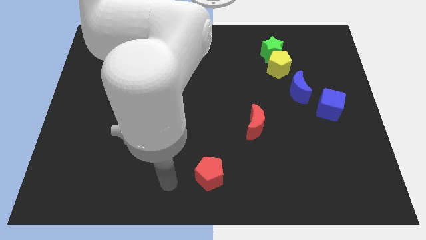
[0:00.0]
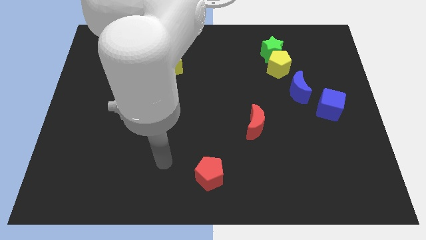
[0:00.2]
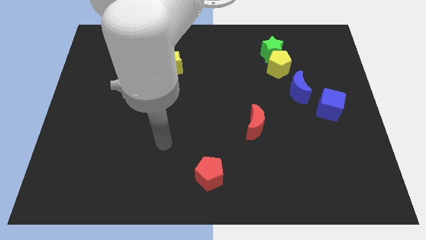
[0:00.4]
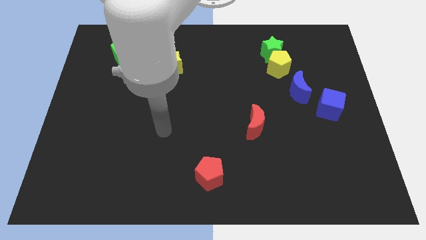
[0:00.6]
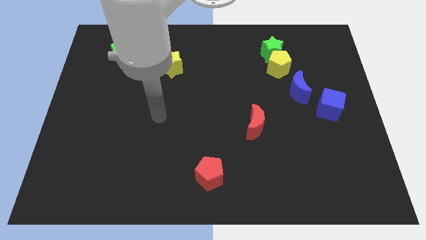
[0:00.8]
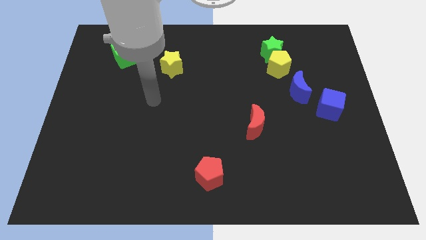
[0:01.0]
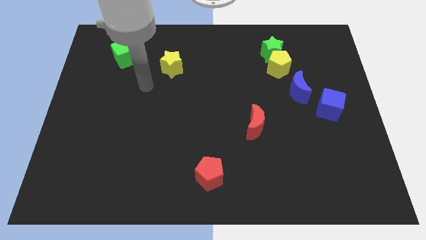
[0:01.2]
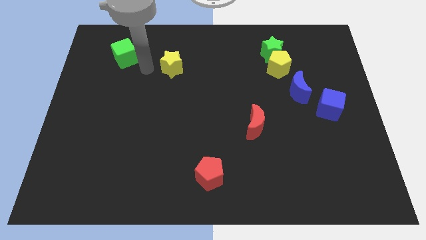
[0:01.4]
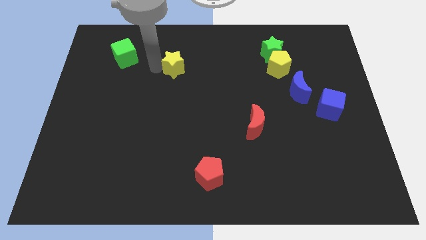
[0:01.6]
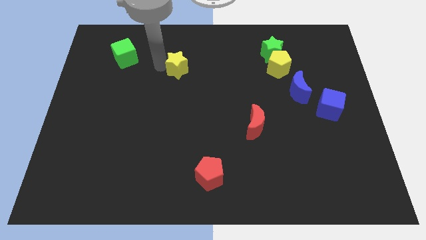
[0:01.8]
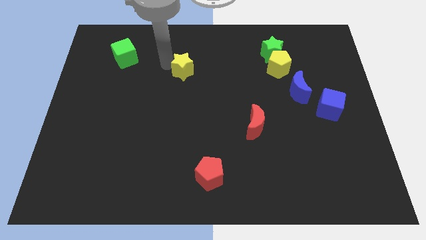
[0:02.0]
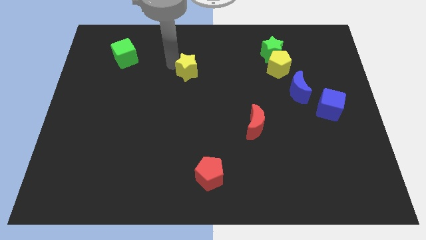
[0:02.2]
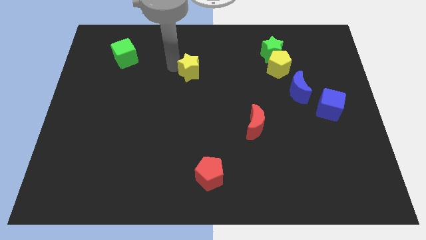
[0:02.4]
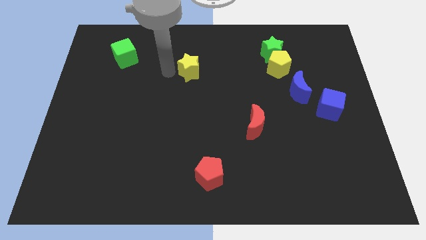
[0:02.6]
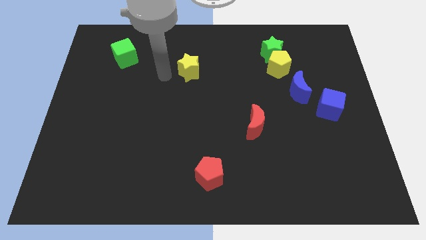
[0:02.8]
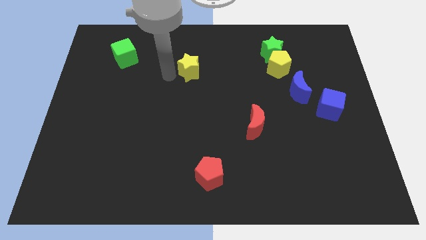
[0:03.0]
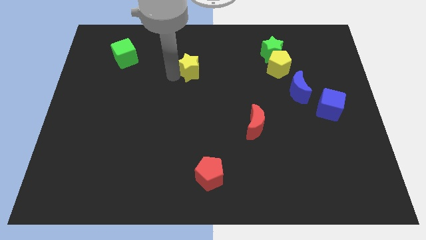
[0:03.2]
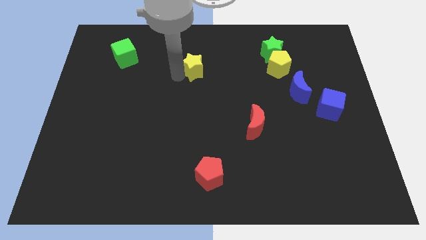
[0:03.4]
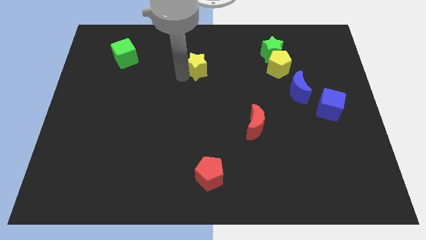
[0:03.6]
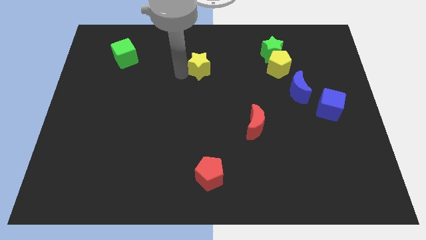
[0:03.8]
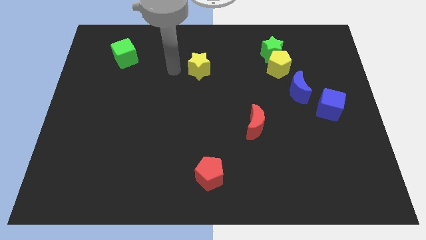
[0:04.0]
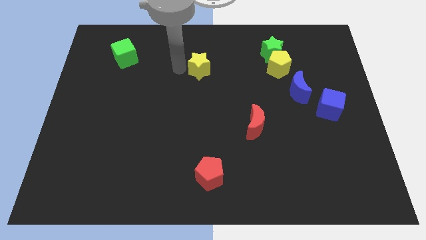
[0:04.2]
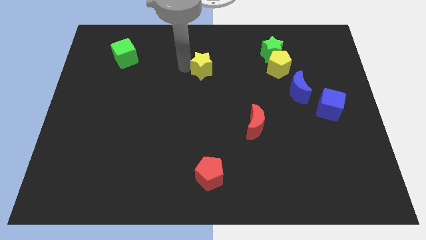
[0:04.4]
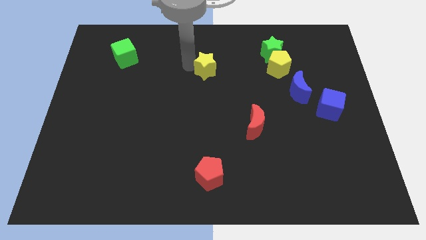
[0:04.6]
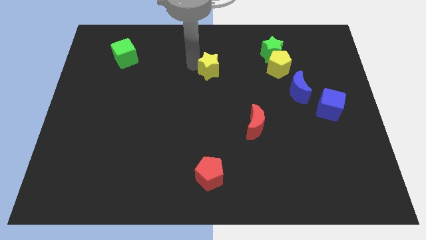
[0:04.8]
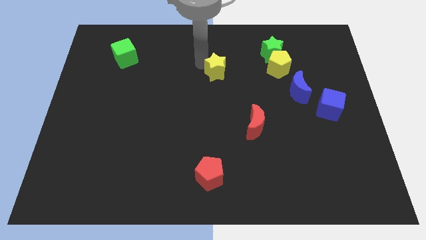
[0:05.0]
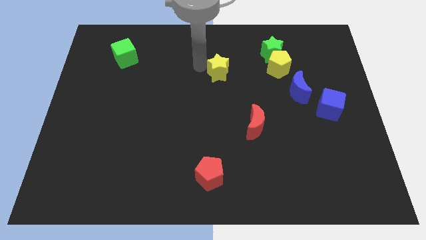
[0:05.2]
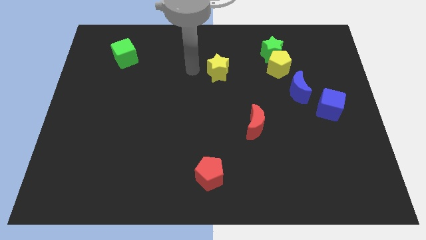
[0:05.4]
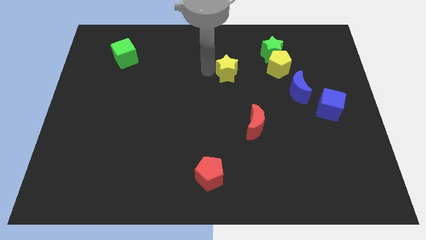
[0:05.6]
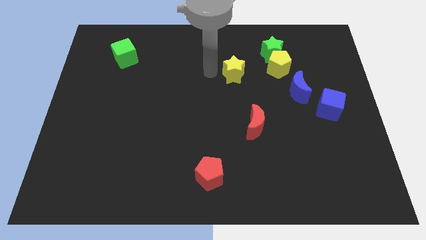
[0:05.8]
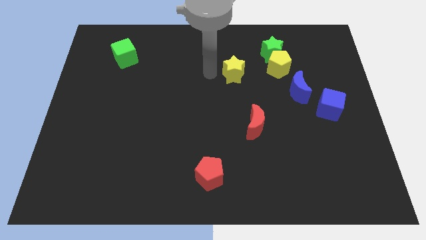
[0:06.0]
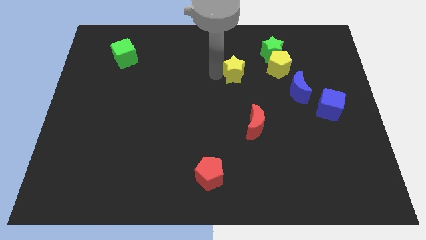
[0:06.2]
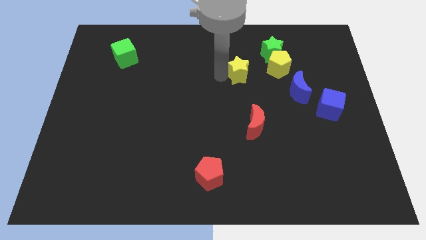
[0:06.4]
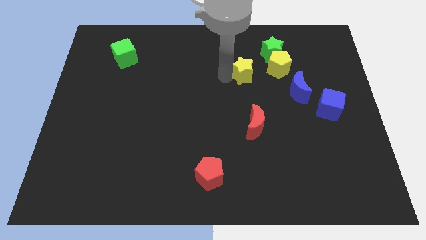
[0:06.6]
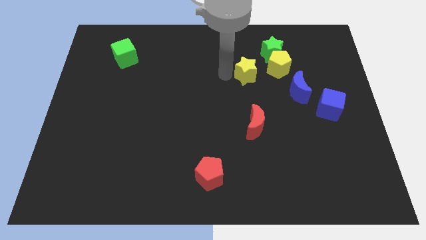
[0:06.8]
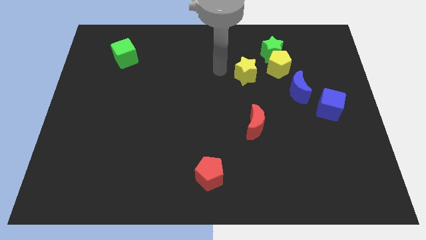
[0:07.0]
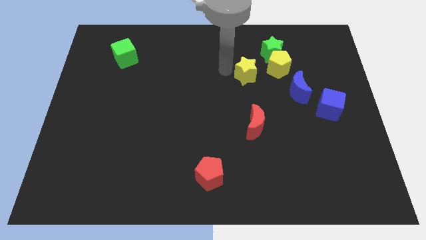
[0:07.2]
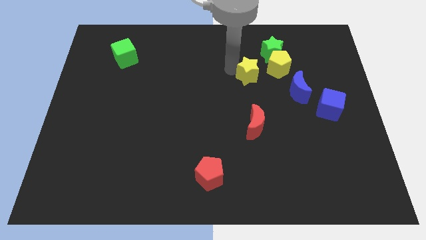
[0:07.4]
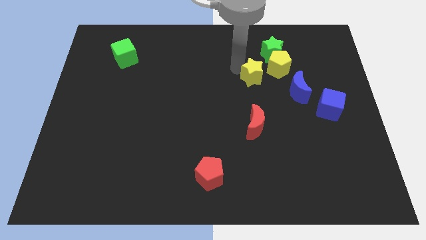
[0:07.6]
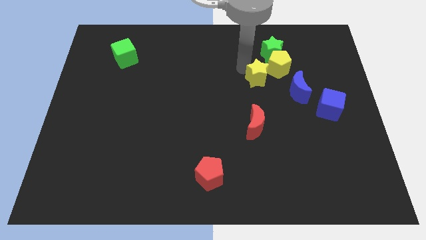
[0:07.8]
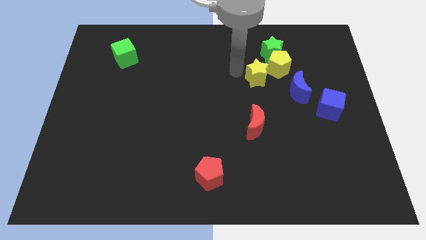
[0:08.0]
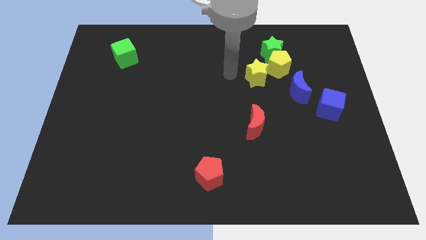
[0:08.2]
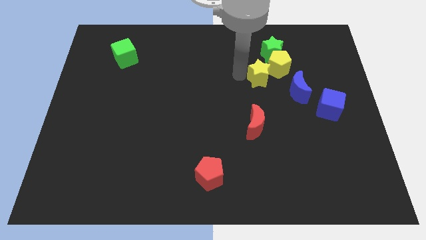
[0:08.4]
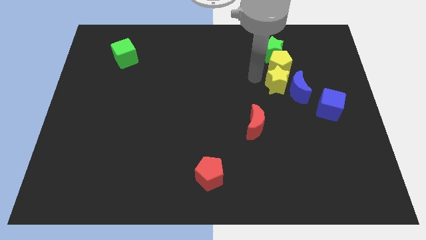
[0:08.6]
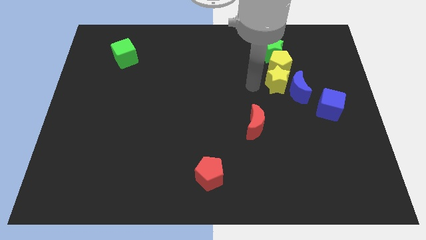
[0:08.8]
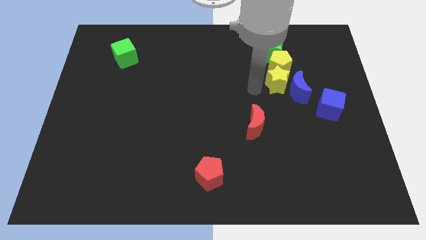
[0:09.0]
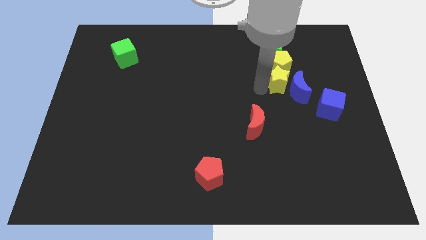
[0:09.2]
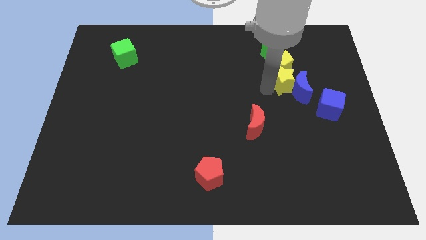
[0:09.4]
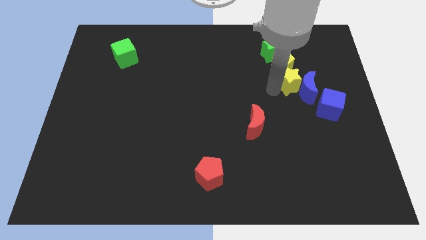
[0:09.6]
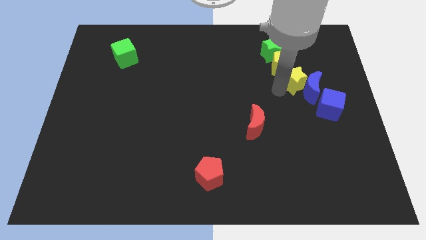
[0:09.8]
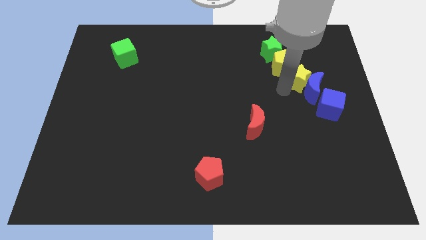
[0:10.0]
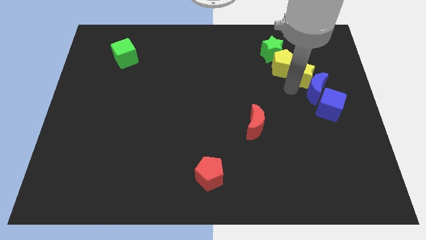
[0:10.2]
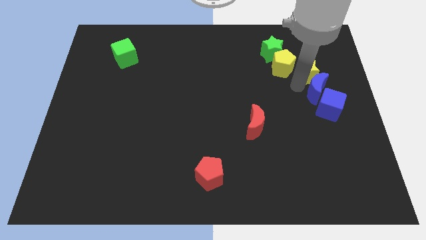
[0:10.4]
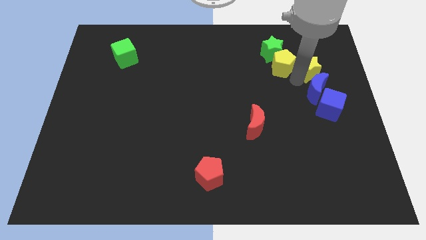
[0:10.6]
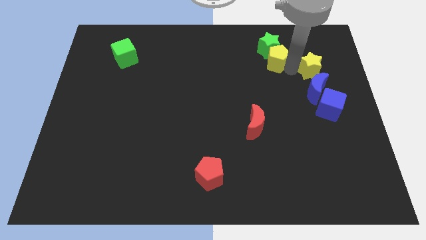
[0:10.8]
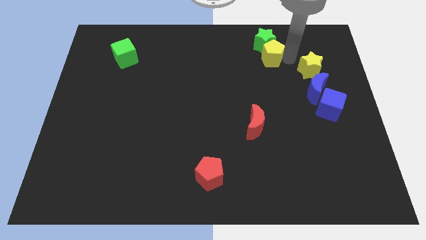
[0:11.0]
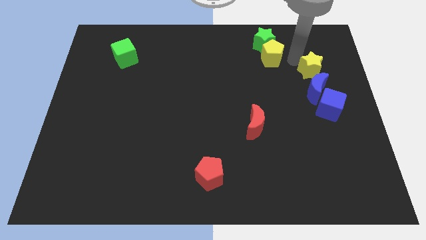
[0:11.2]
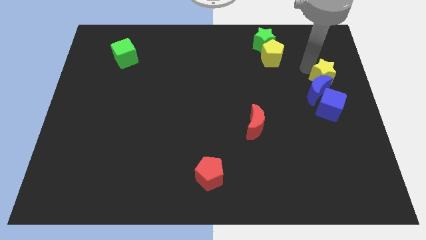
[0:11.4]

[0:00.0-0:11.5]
put the yellow star to the right side of the board
